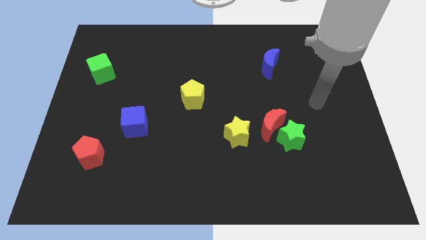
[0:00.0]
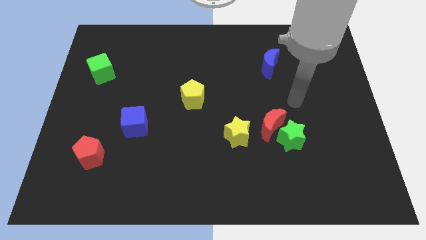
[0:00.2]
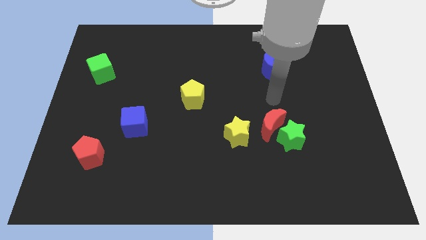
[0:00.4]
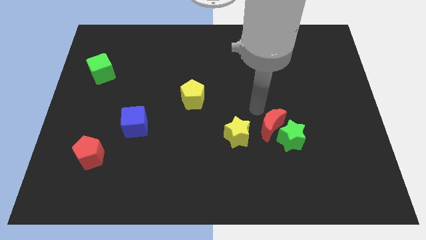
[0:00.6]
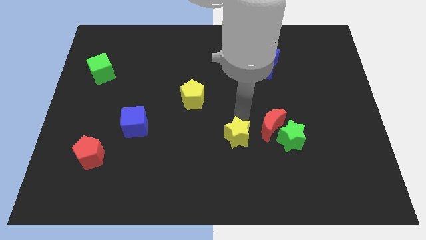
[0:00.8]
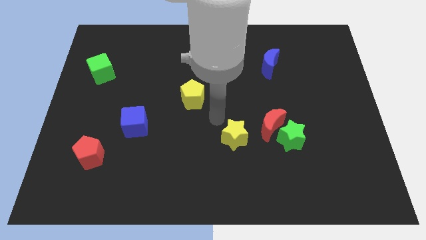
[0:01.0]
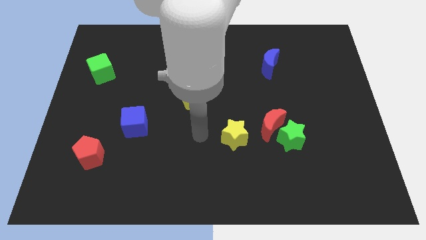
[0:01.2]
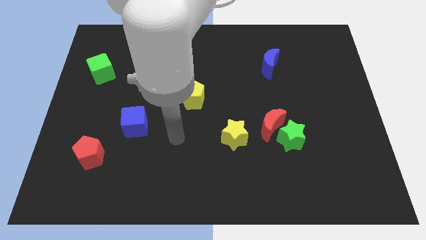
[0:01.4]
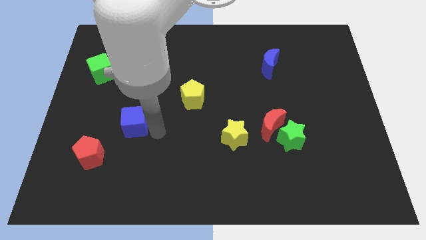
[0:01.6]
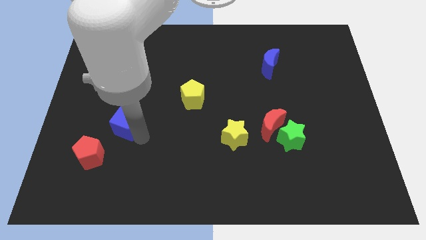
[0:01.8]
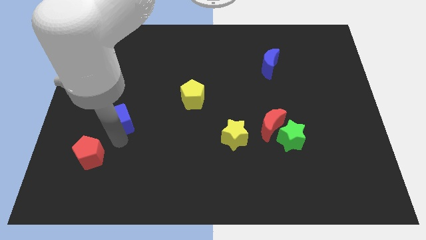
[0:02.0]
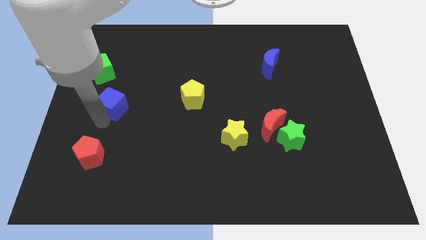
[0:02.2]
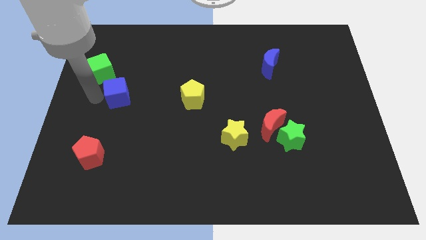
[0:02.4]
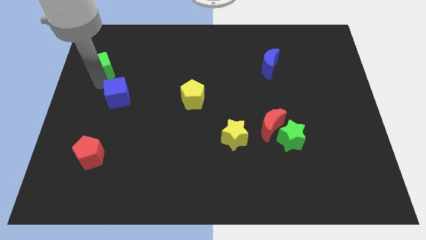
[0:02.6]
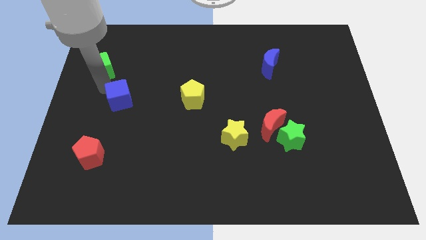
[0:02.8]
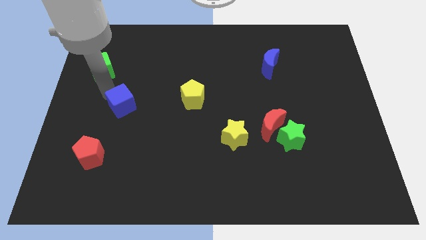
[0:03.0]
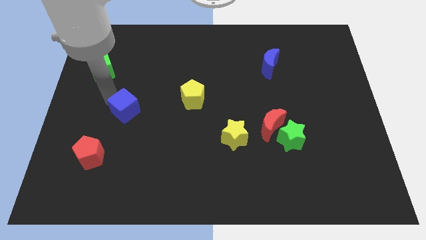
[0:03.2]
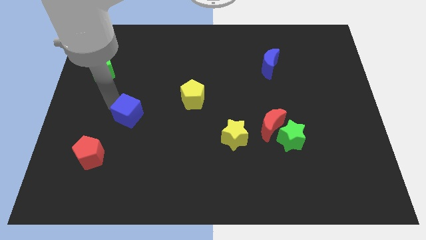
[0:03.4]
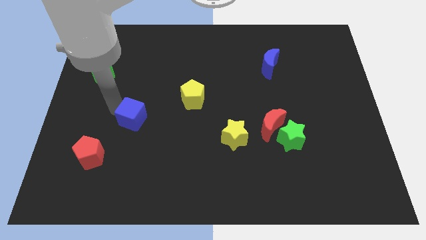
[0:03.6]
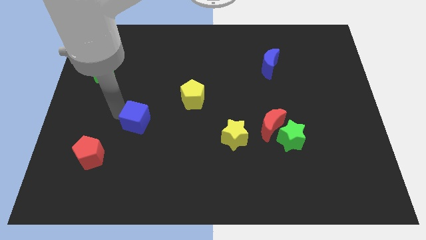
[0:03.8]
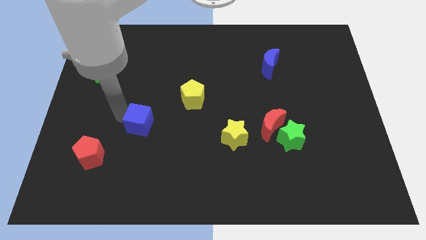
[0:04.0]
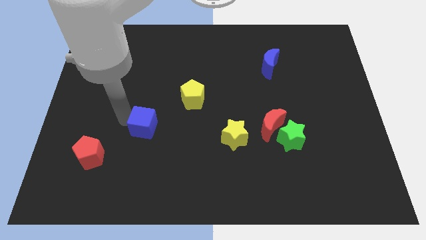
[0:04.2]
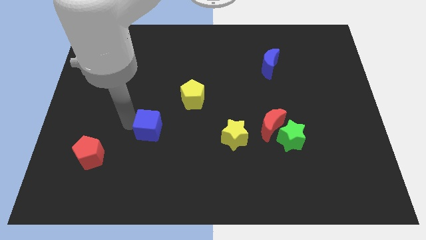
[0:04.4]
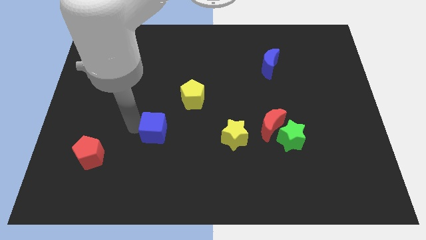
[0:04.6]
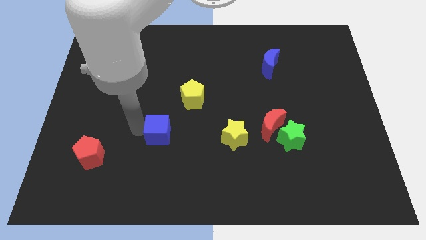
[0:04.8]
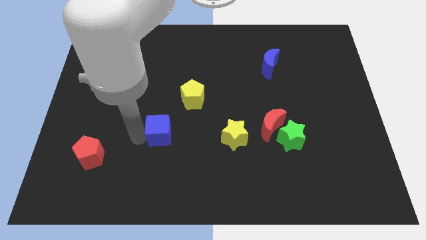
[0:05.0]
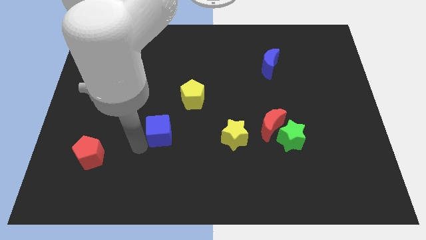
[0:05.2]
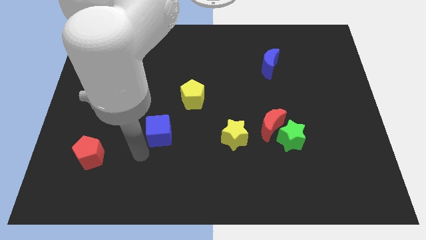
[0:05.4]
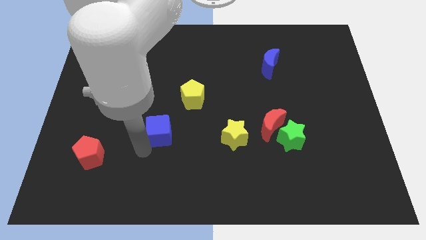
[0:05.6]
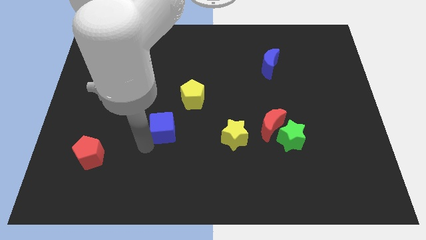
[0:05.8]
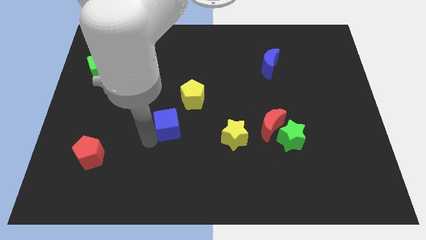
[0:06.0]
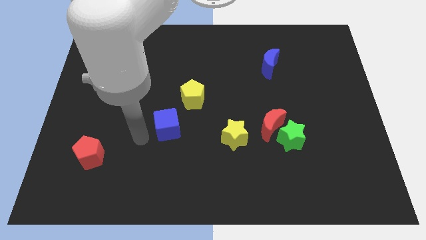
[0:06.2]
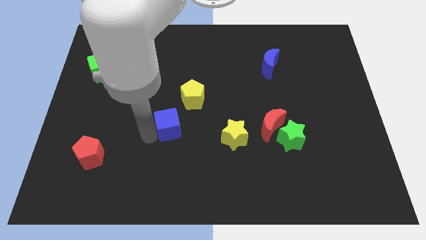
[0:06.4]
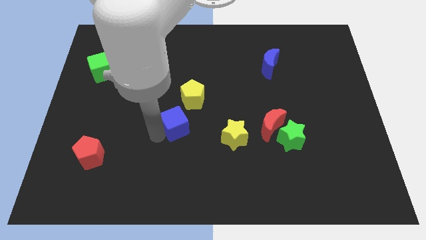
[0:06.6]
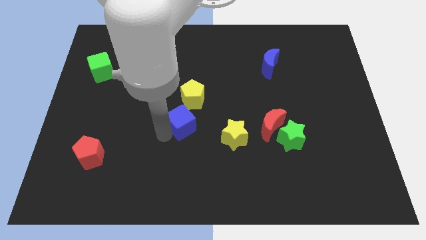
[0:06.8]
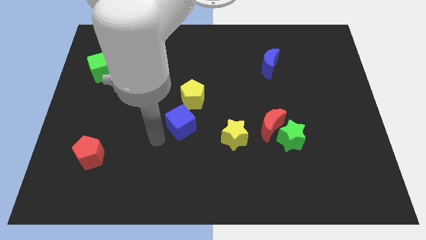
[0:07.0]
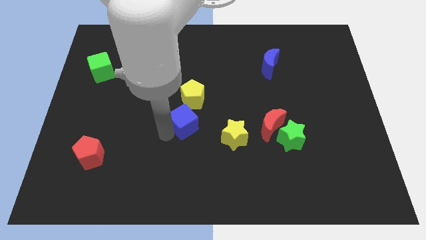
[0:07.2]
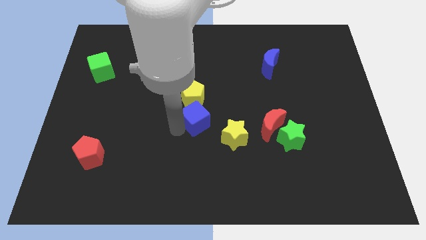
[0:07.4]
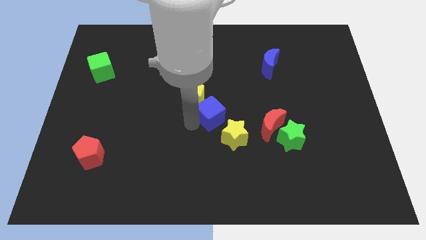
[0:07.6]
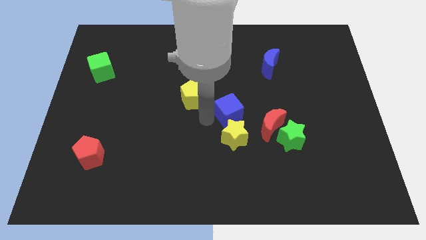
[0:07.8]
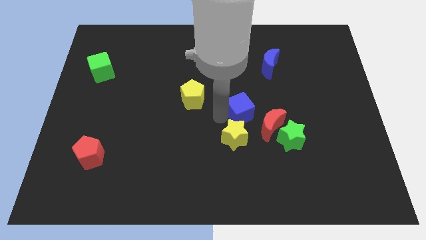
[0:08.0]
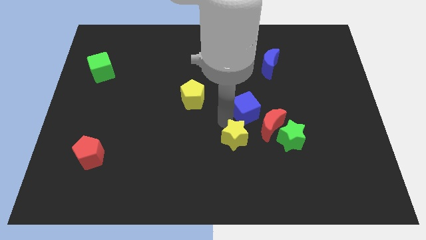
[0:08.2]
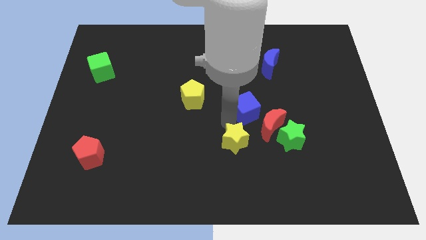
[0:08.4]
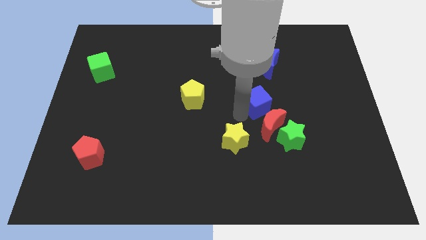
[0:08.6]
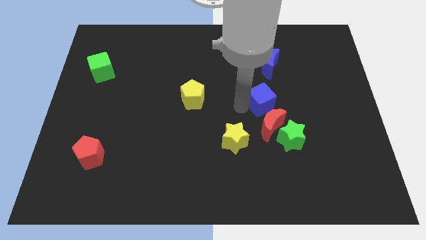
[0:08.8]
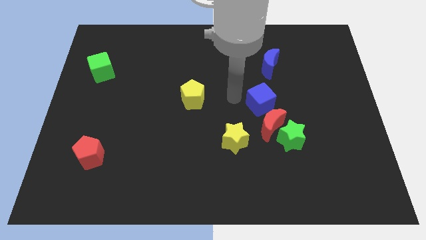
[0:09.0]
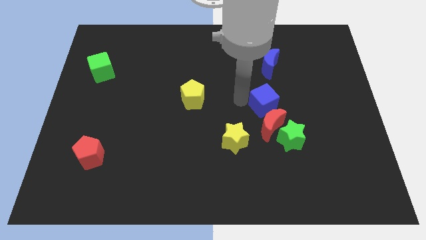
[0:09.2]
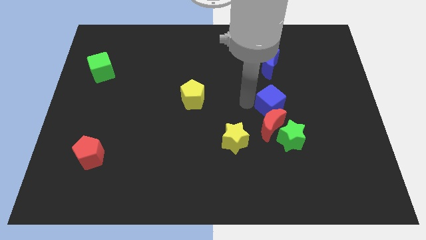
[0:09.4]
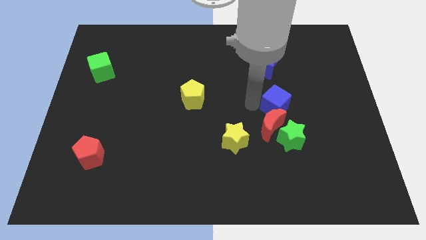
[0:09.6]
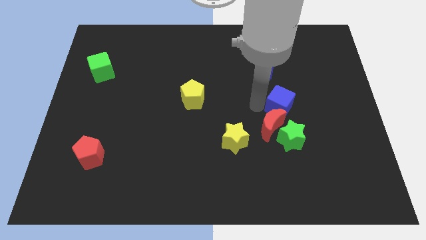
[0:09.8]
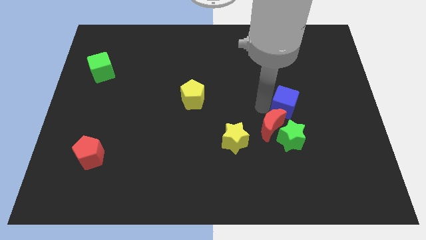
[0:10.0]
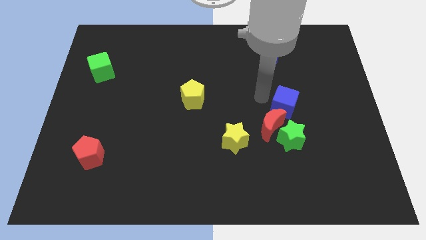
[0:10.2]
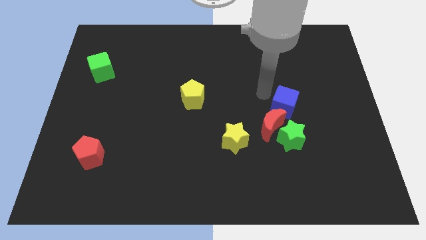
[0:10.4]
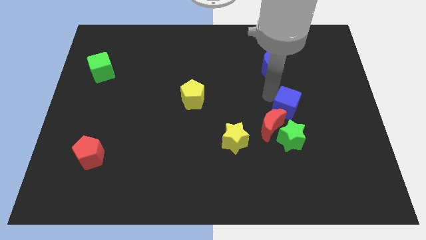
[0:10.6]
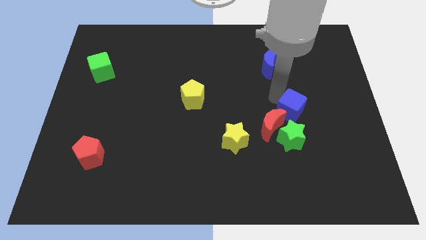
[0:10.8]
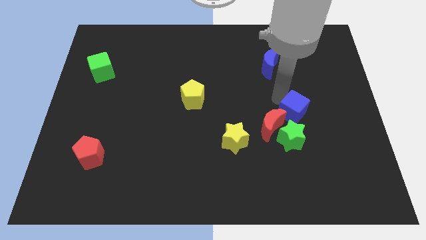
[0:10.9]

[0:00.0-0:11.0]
move the blue cube to the top right side of the green star
